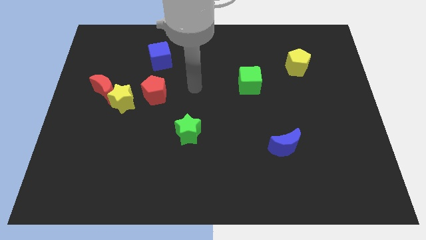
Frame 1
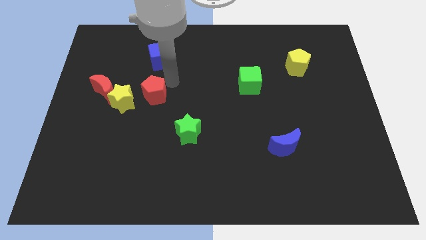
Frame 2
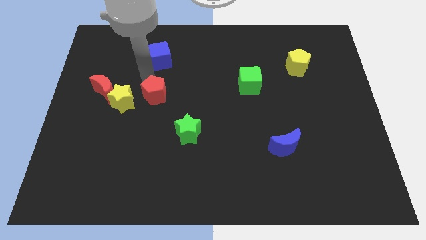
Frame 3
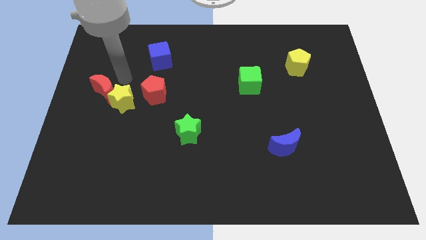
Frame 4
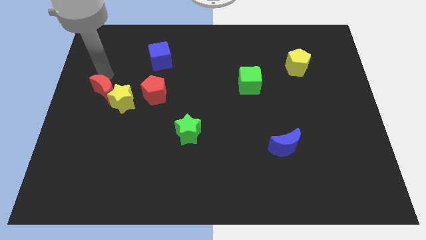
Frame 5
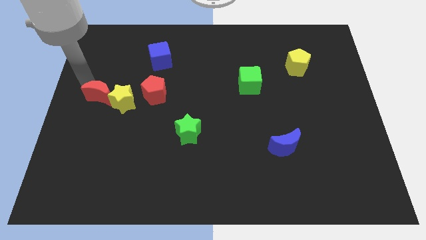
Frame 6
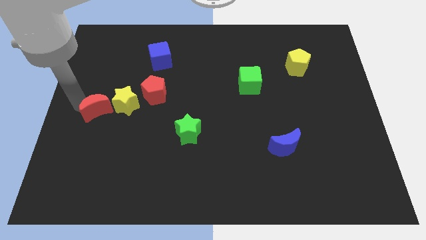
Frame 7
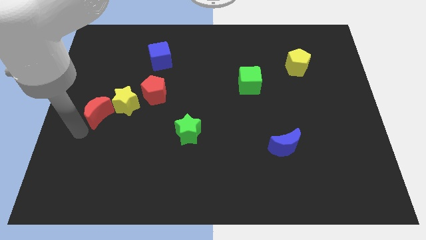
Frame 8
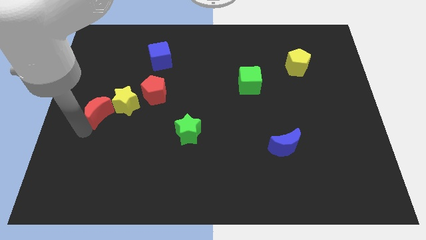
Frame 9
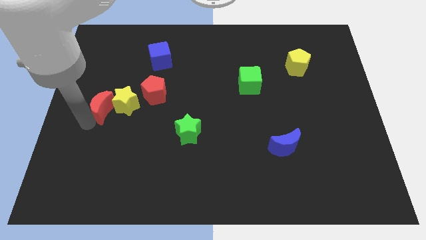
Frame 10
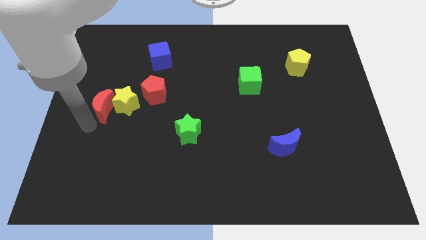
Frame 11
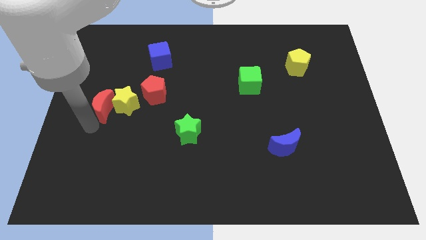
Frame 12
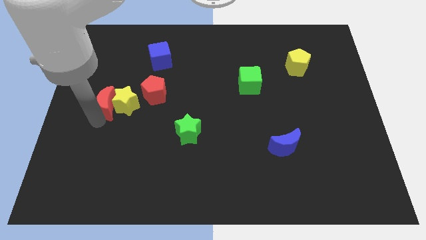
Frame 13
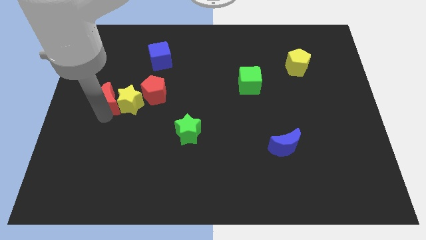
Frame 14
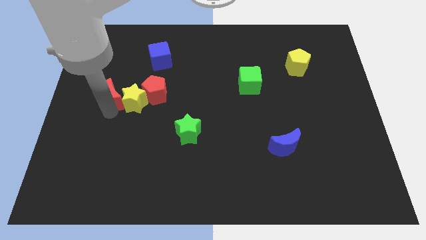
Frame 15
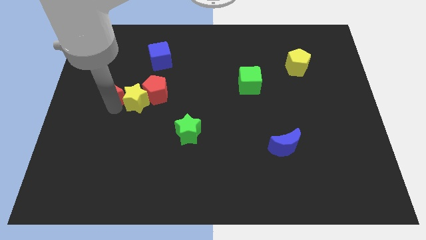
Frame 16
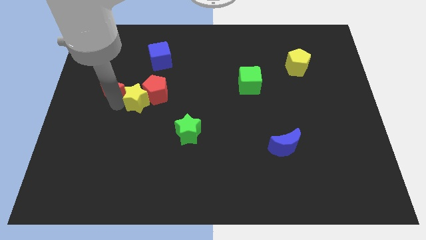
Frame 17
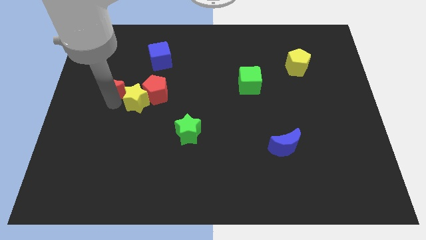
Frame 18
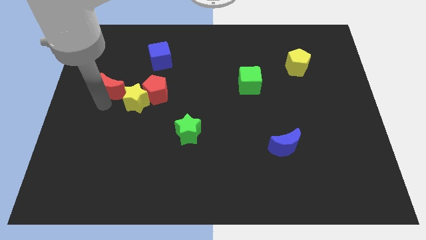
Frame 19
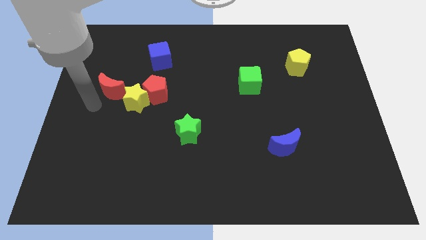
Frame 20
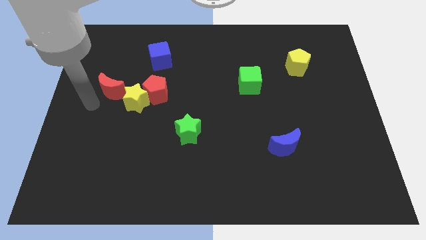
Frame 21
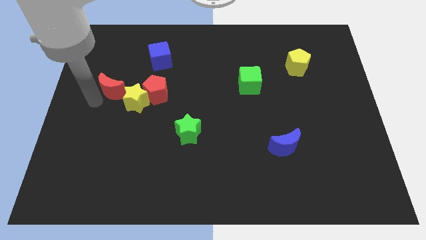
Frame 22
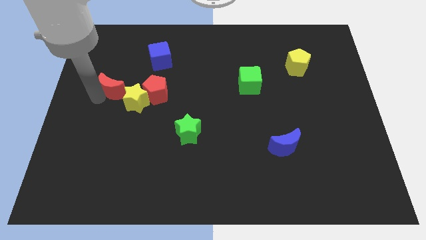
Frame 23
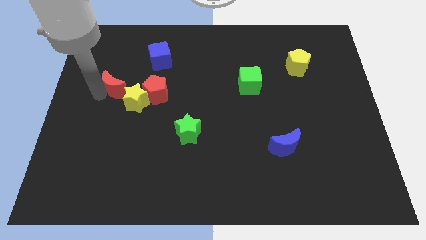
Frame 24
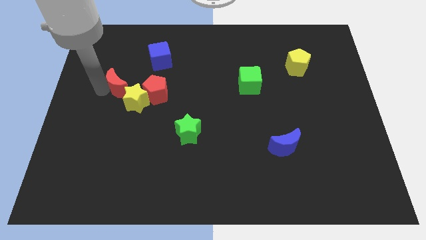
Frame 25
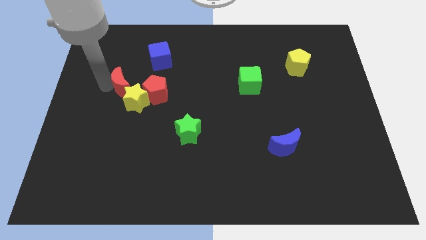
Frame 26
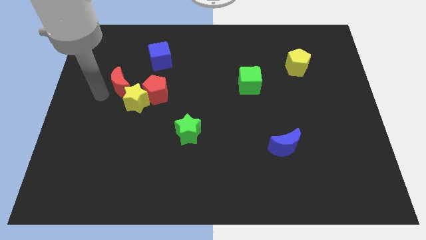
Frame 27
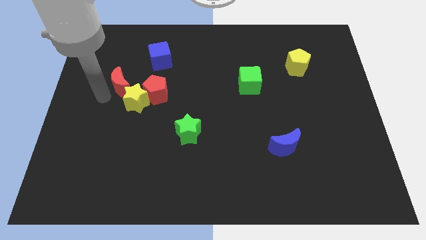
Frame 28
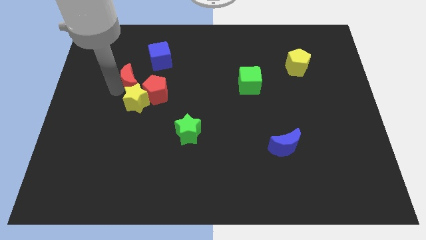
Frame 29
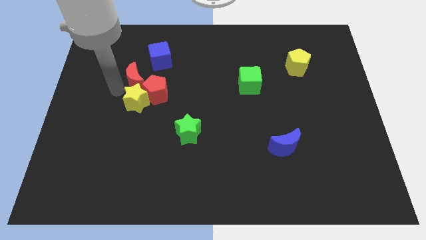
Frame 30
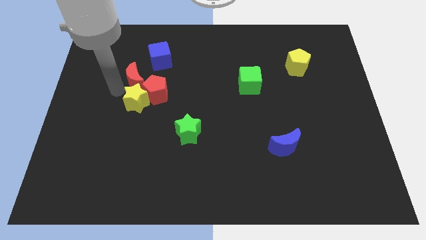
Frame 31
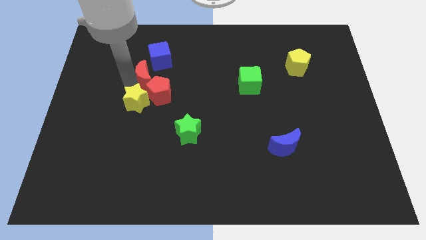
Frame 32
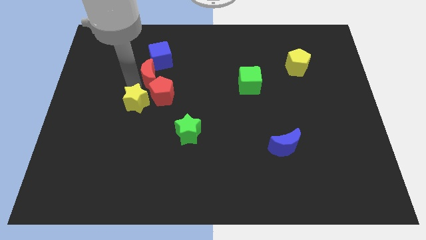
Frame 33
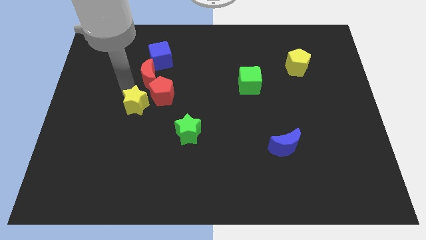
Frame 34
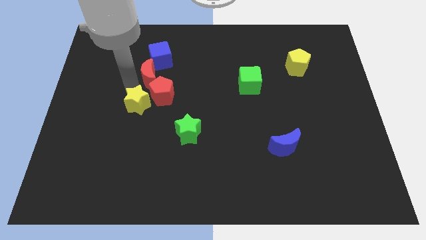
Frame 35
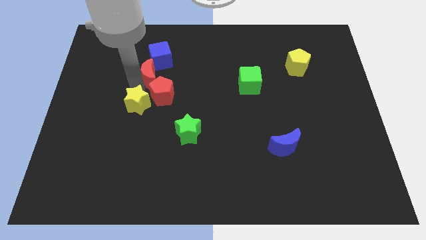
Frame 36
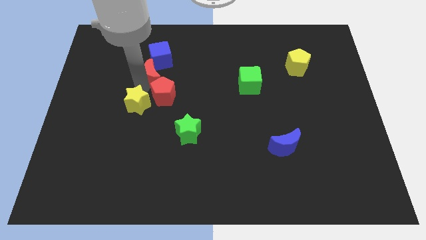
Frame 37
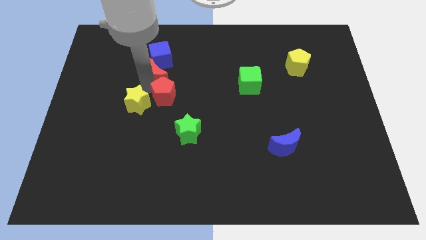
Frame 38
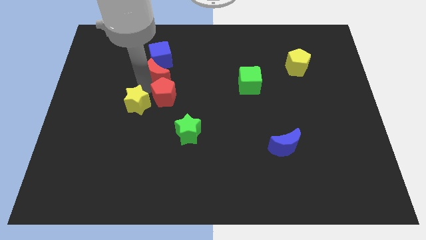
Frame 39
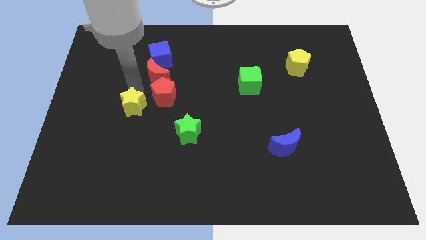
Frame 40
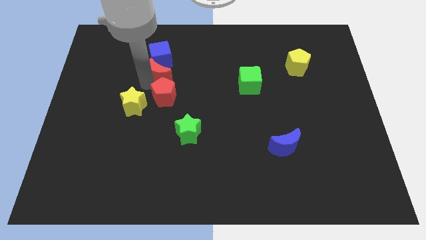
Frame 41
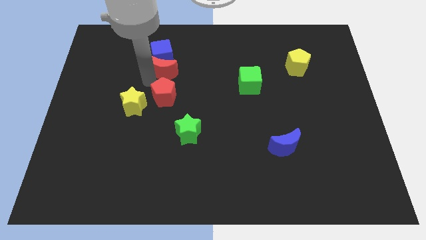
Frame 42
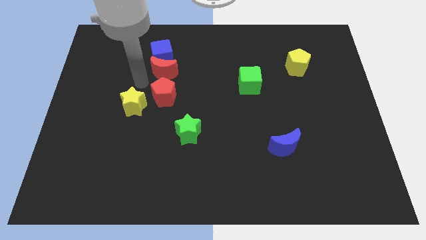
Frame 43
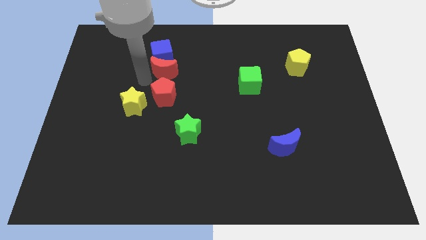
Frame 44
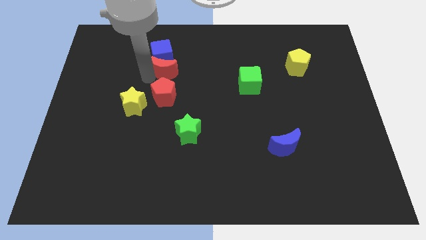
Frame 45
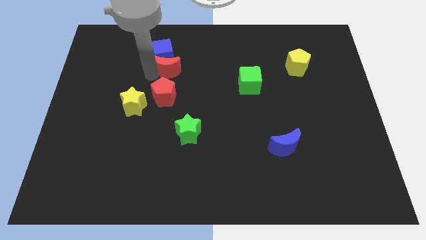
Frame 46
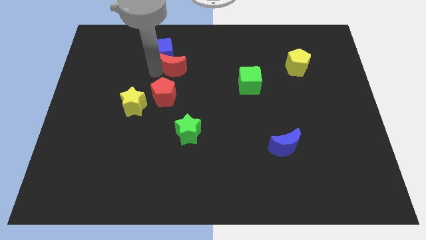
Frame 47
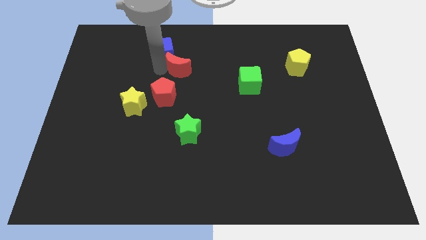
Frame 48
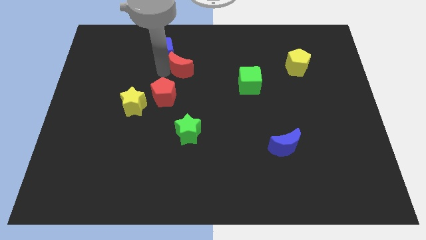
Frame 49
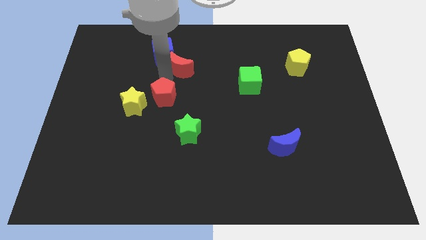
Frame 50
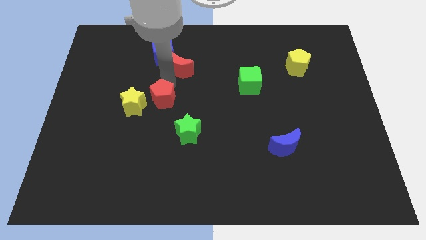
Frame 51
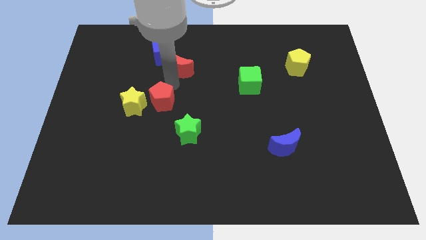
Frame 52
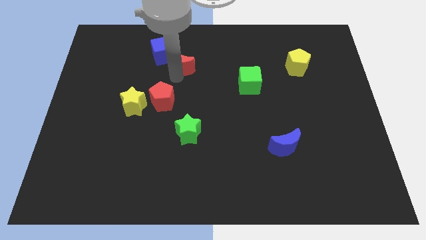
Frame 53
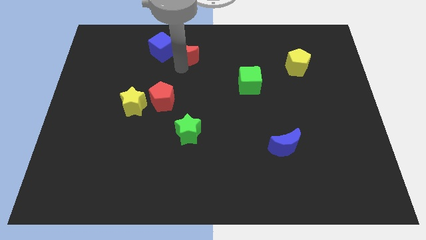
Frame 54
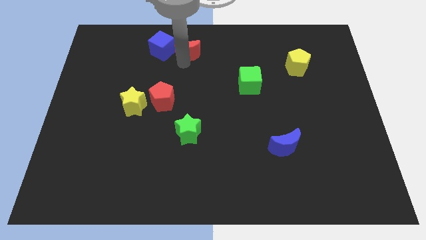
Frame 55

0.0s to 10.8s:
slide the red moon to the top side

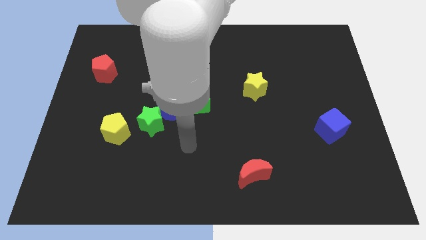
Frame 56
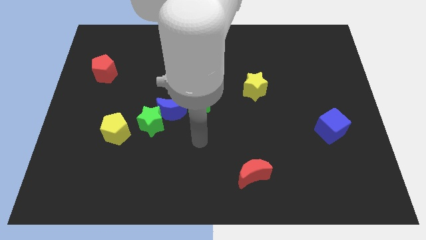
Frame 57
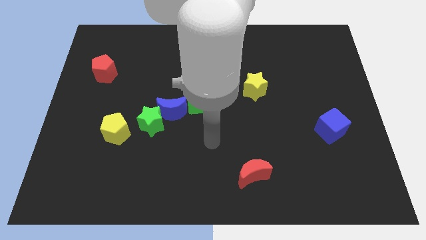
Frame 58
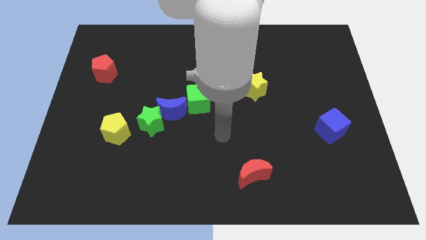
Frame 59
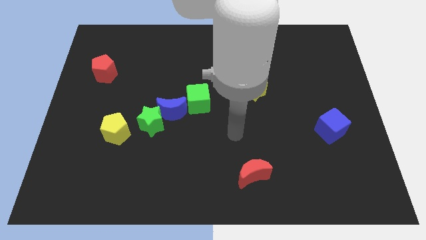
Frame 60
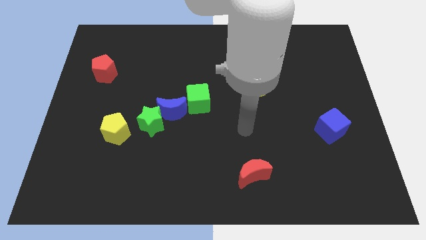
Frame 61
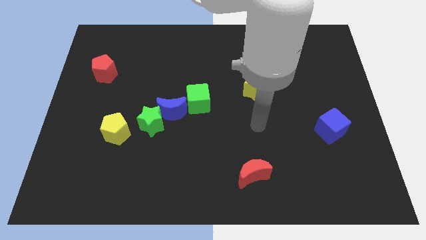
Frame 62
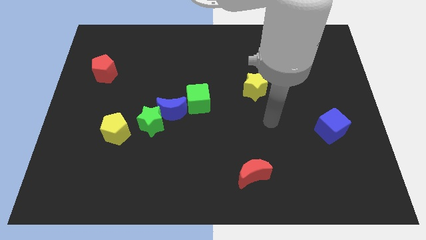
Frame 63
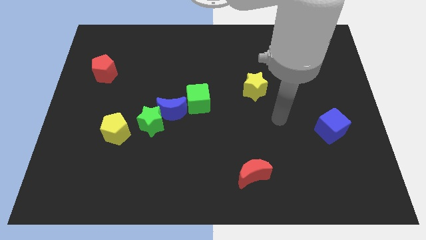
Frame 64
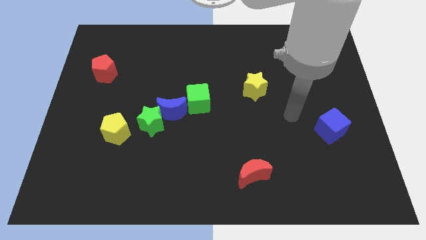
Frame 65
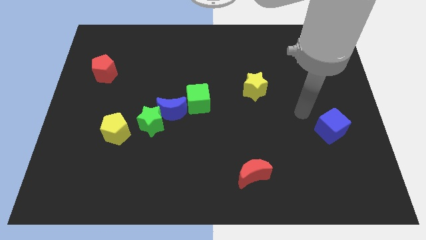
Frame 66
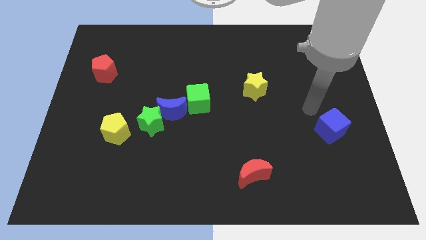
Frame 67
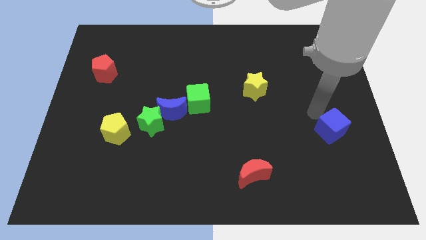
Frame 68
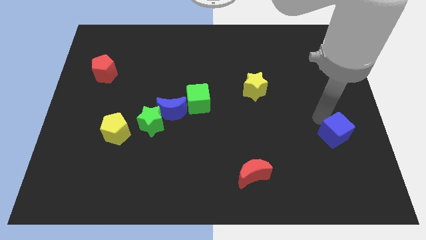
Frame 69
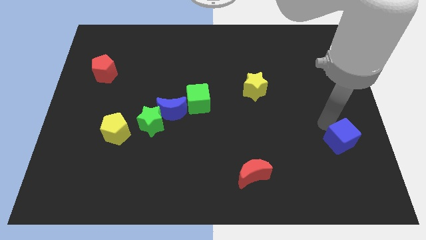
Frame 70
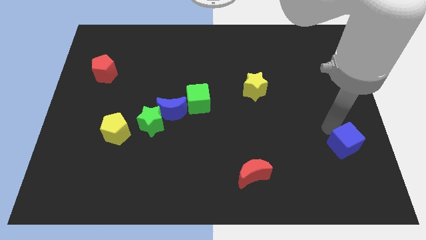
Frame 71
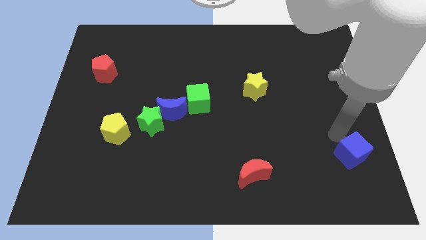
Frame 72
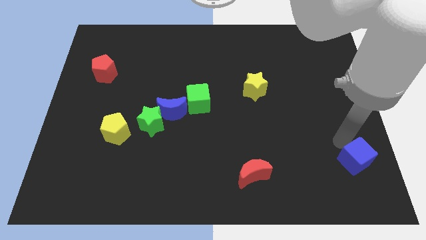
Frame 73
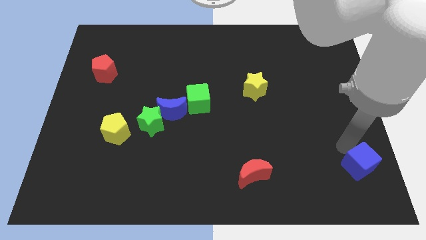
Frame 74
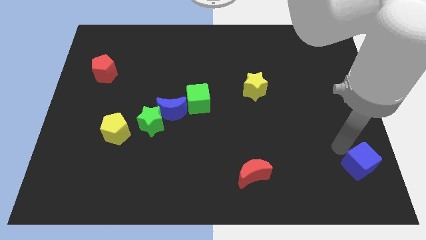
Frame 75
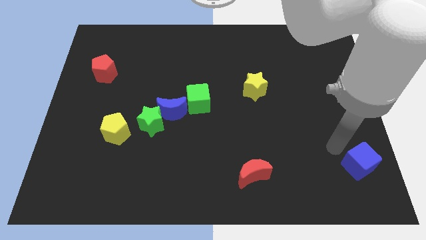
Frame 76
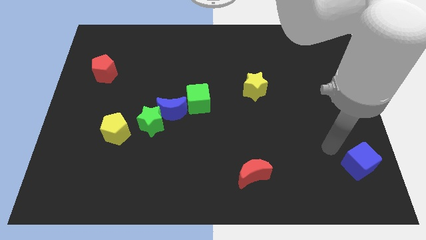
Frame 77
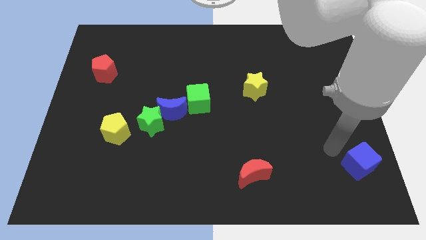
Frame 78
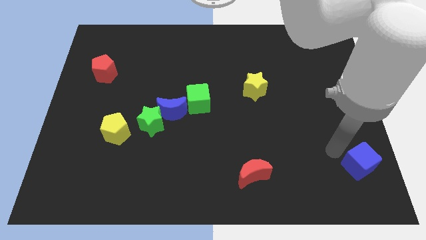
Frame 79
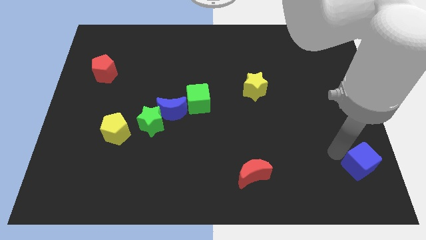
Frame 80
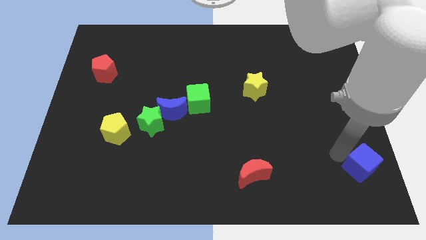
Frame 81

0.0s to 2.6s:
put the blue cube to the bottom right of the board
